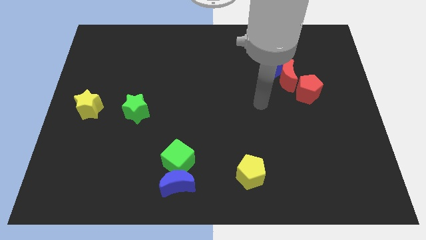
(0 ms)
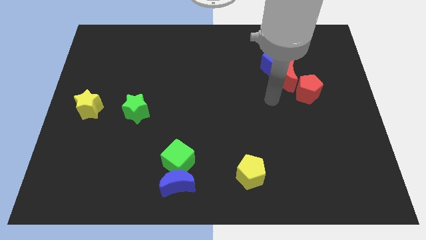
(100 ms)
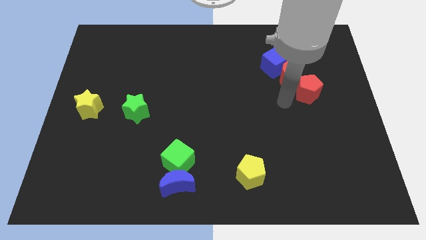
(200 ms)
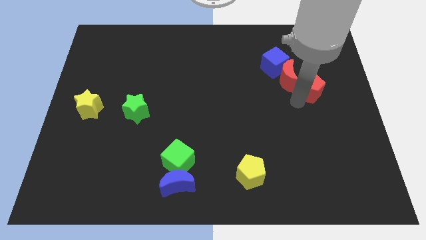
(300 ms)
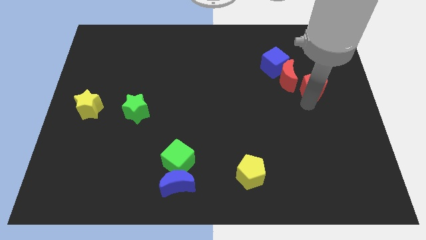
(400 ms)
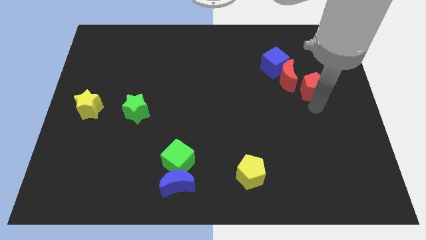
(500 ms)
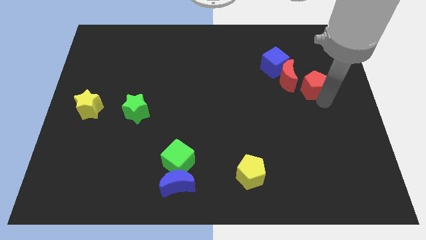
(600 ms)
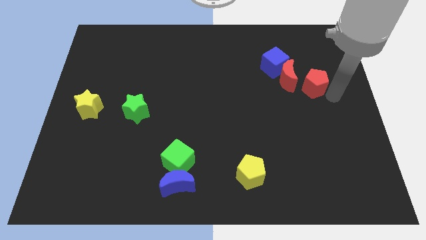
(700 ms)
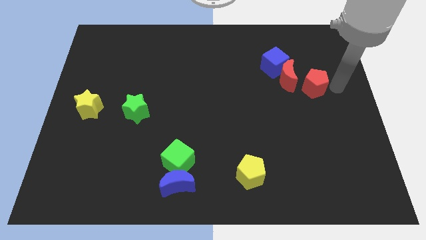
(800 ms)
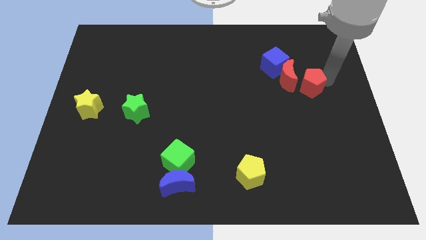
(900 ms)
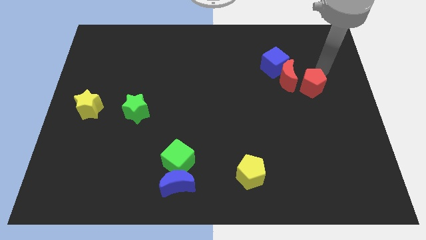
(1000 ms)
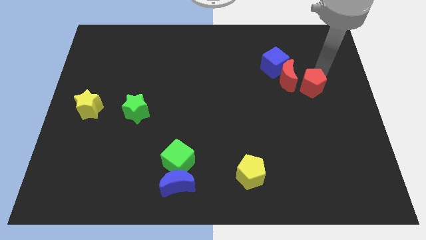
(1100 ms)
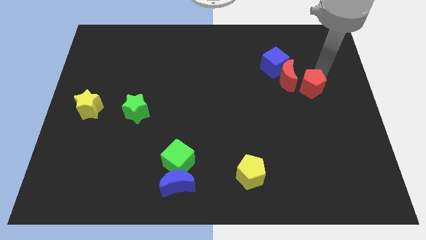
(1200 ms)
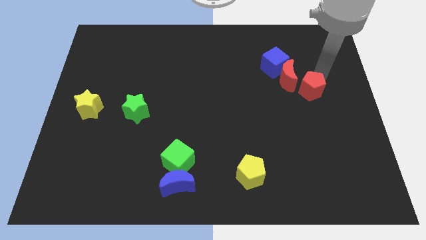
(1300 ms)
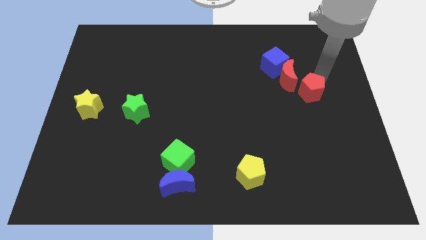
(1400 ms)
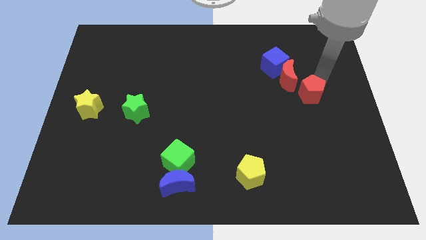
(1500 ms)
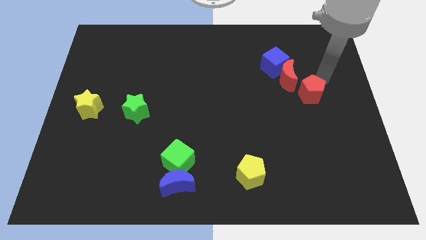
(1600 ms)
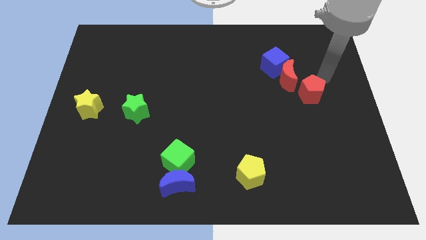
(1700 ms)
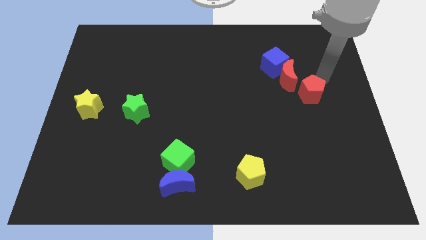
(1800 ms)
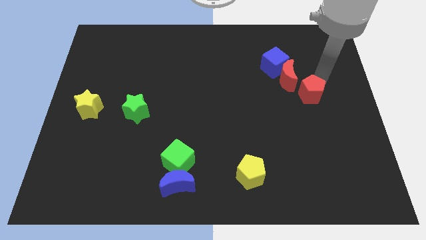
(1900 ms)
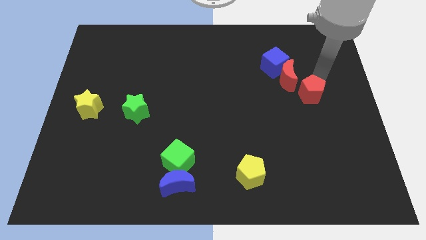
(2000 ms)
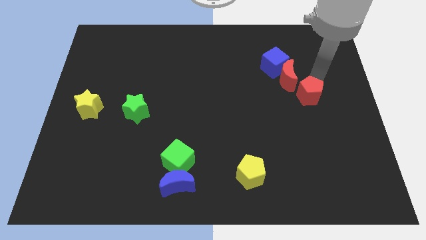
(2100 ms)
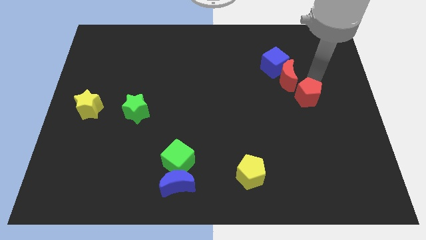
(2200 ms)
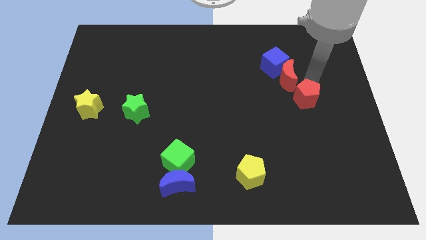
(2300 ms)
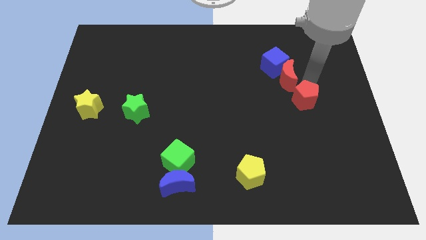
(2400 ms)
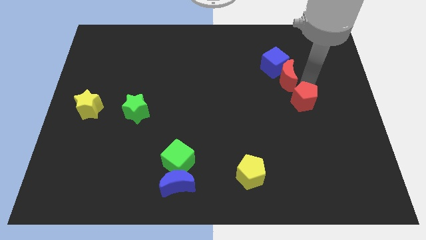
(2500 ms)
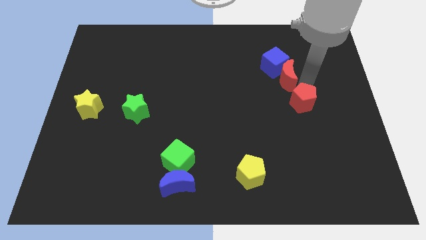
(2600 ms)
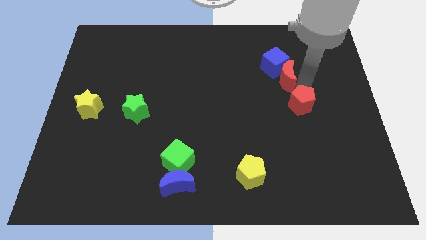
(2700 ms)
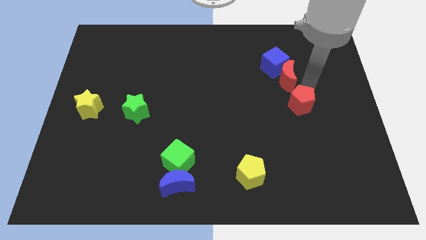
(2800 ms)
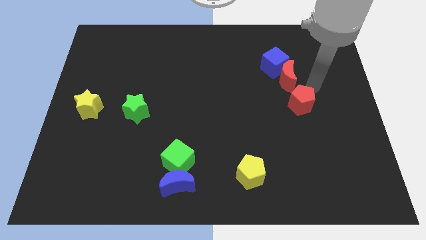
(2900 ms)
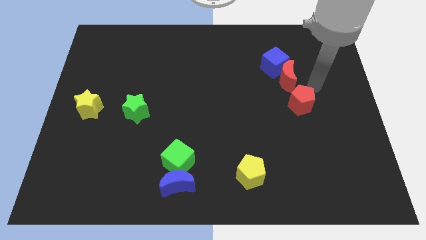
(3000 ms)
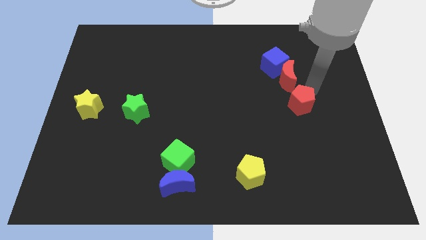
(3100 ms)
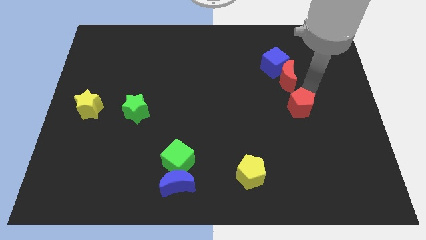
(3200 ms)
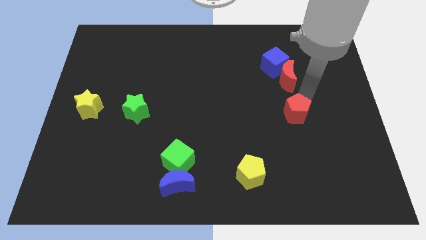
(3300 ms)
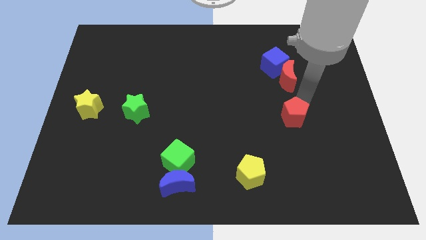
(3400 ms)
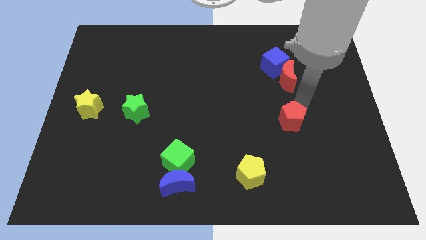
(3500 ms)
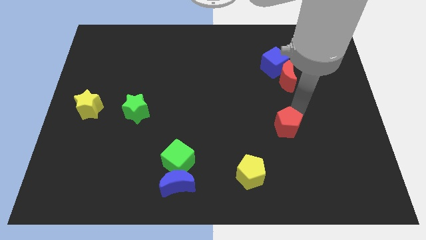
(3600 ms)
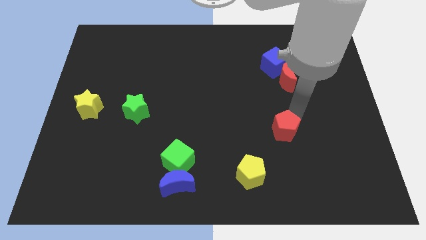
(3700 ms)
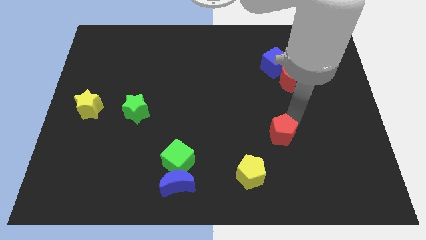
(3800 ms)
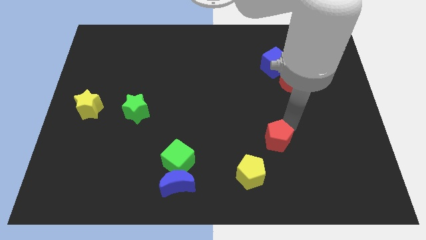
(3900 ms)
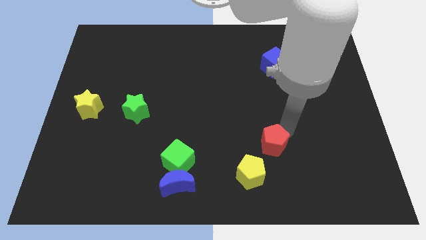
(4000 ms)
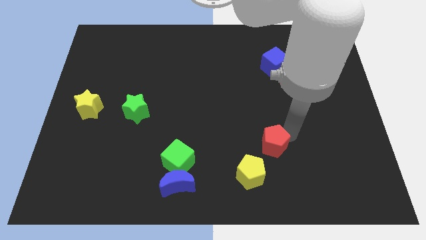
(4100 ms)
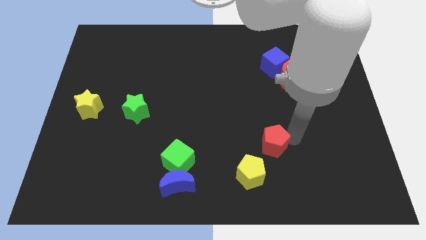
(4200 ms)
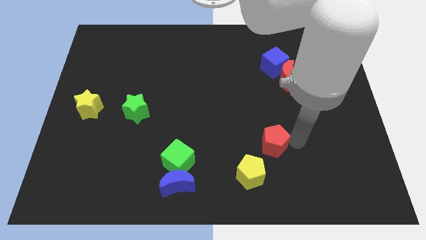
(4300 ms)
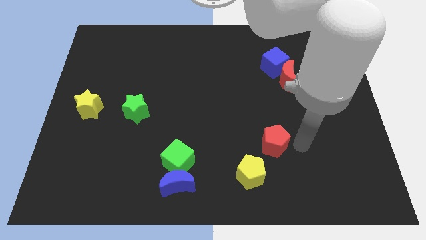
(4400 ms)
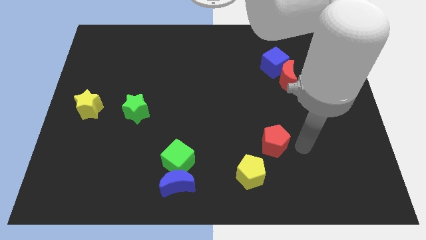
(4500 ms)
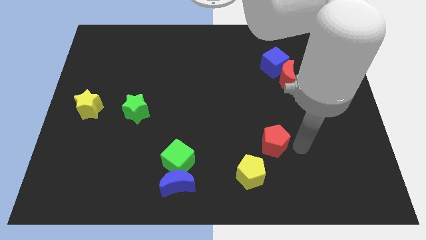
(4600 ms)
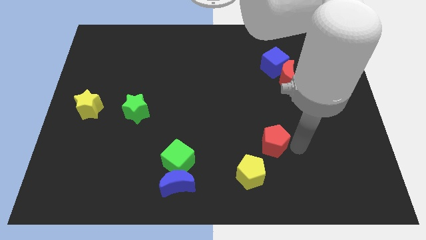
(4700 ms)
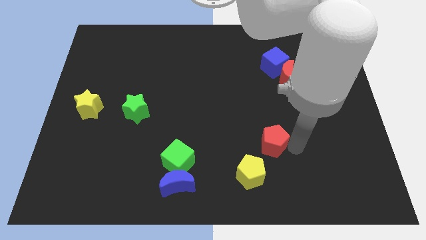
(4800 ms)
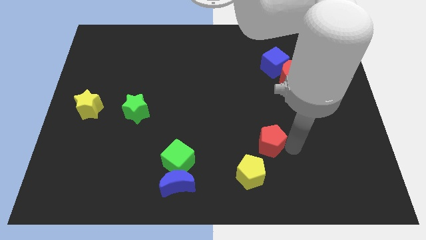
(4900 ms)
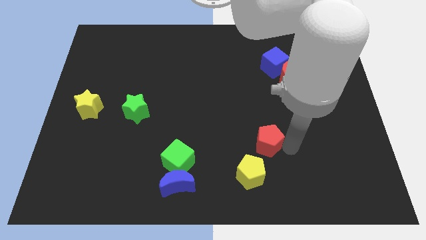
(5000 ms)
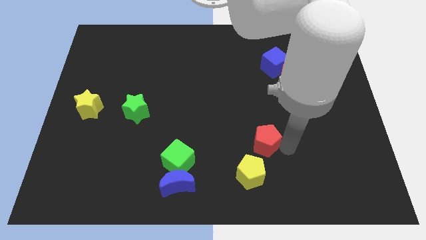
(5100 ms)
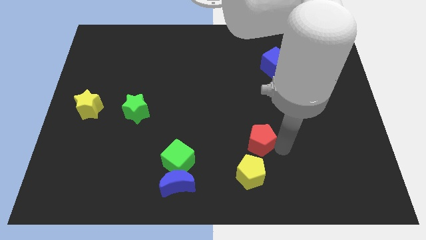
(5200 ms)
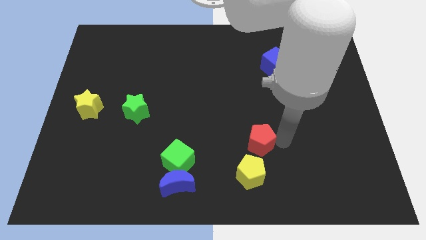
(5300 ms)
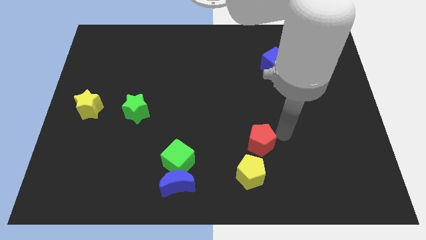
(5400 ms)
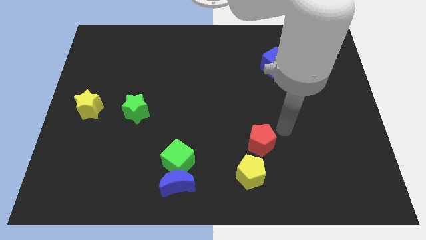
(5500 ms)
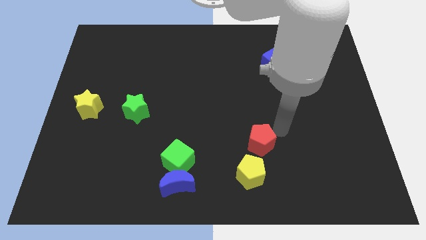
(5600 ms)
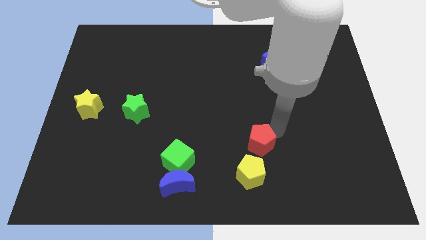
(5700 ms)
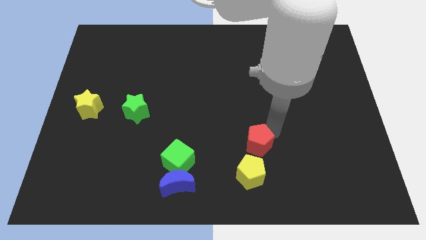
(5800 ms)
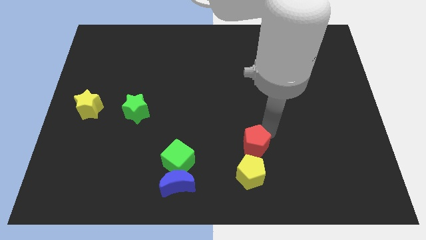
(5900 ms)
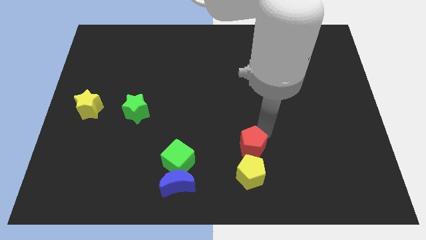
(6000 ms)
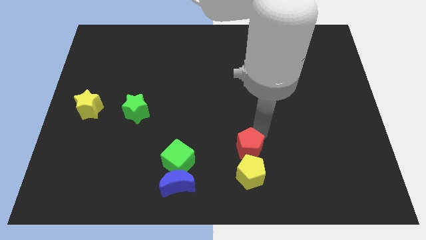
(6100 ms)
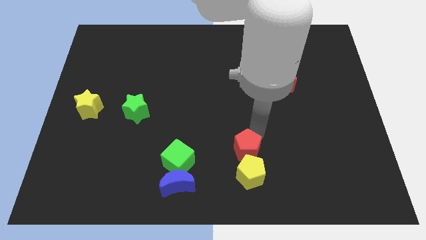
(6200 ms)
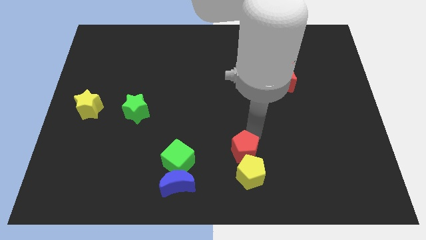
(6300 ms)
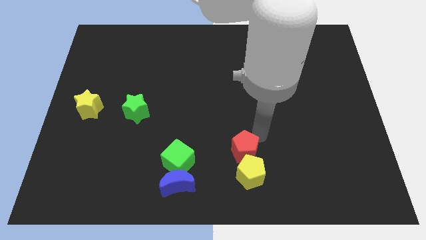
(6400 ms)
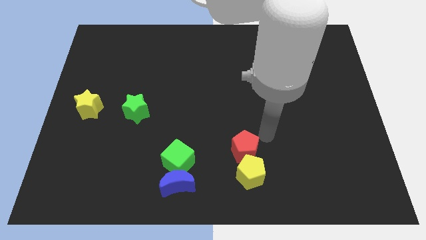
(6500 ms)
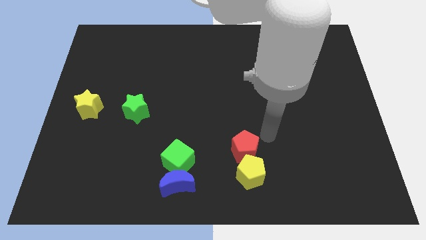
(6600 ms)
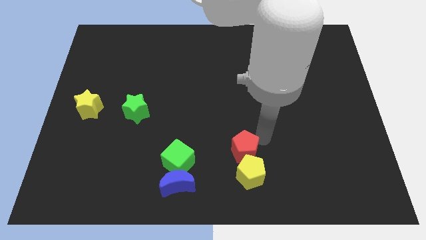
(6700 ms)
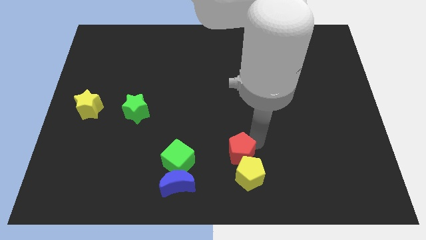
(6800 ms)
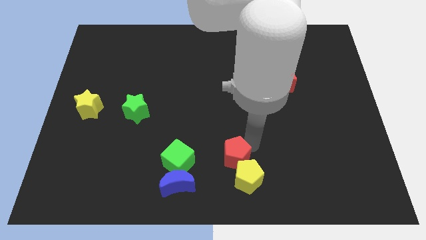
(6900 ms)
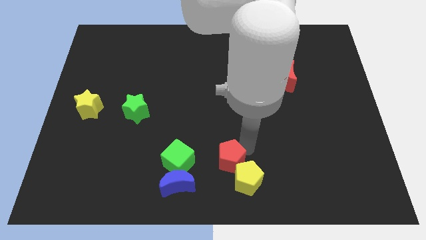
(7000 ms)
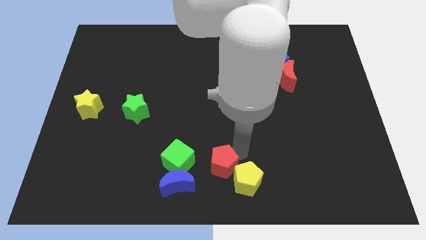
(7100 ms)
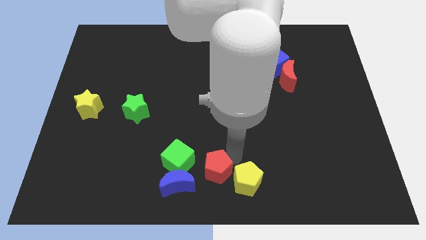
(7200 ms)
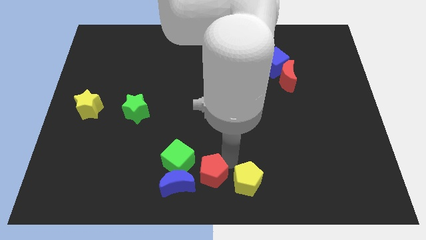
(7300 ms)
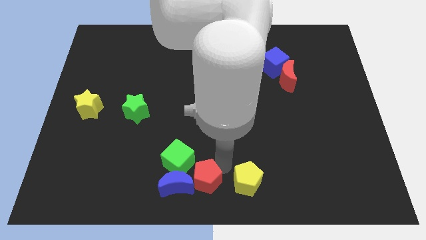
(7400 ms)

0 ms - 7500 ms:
move the red pentagon next to the blue moon
